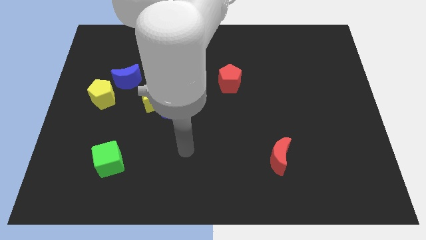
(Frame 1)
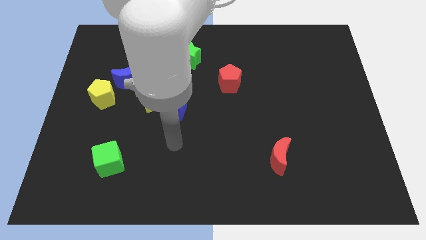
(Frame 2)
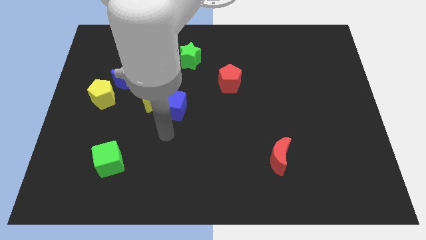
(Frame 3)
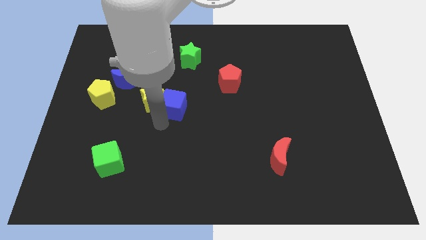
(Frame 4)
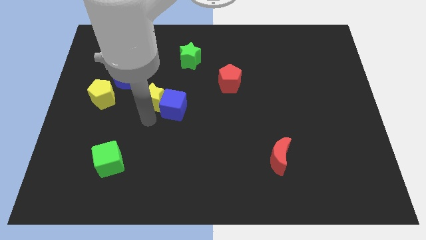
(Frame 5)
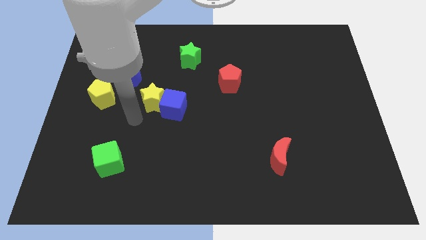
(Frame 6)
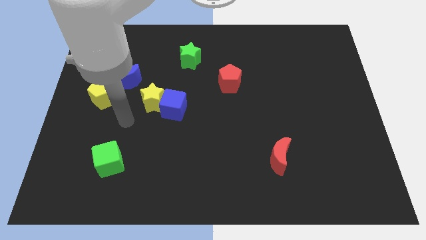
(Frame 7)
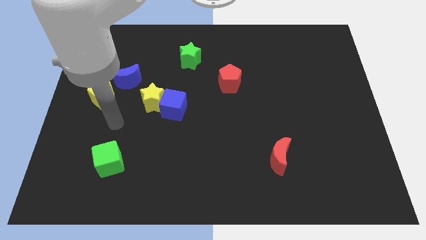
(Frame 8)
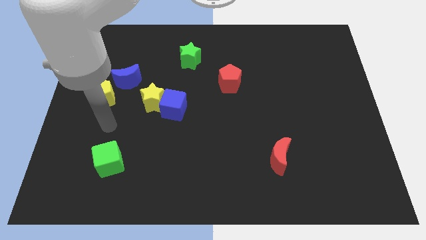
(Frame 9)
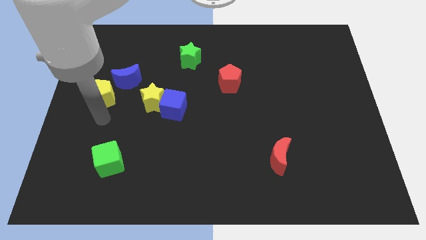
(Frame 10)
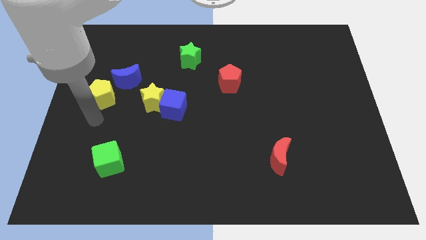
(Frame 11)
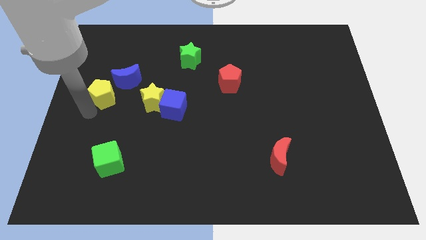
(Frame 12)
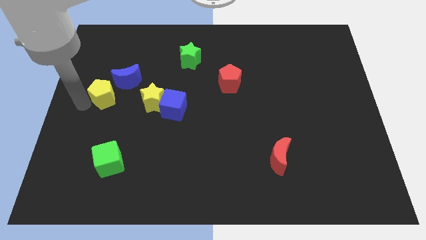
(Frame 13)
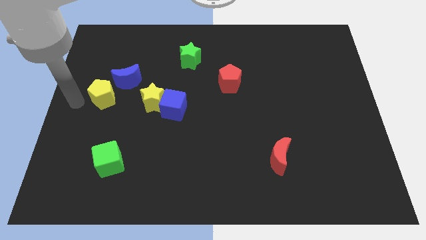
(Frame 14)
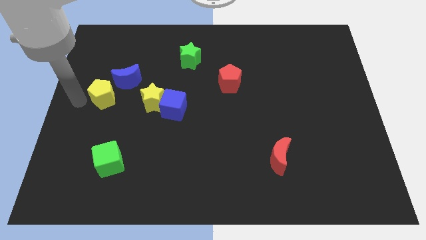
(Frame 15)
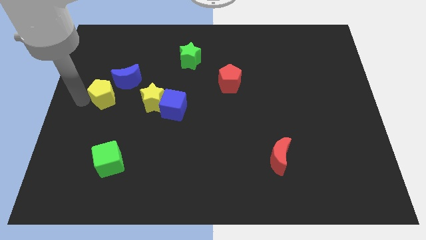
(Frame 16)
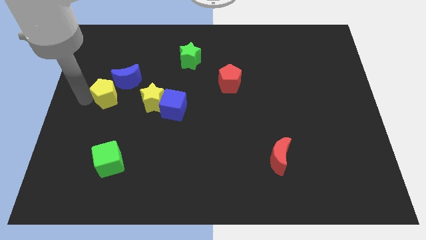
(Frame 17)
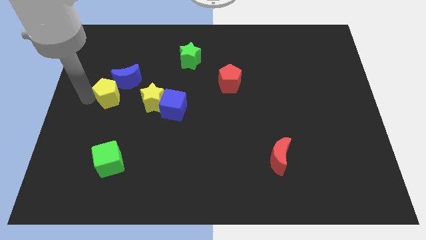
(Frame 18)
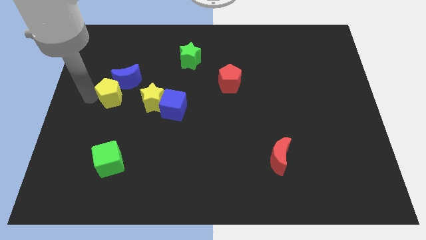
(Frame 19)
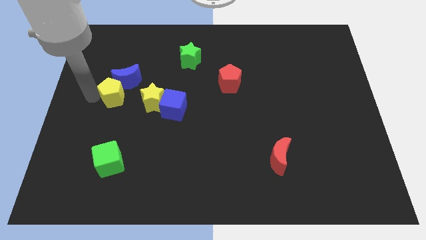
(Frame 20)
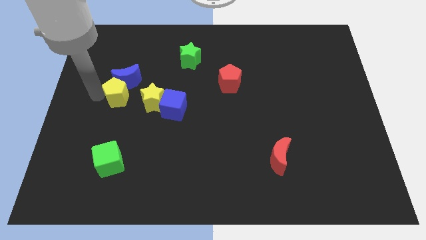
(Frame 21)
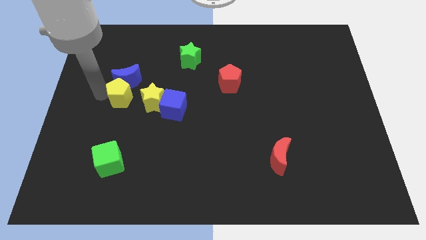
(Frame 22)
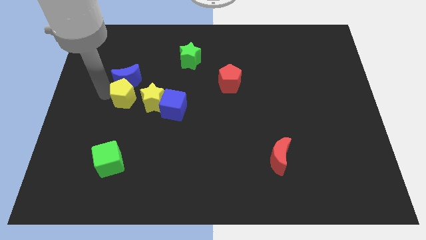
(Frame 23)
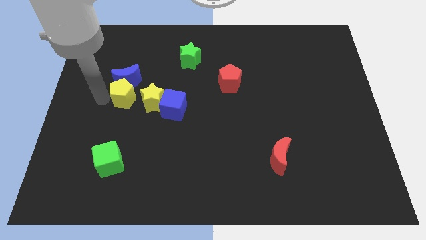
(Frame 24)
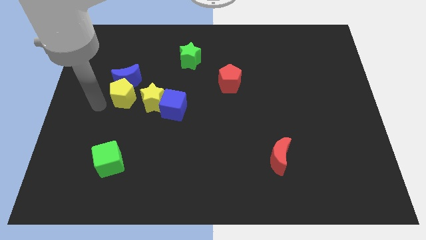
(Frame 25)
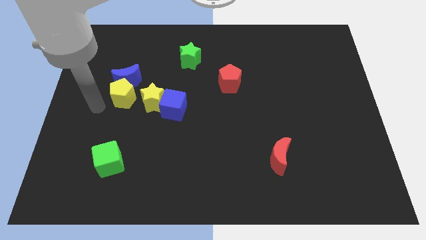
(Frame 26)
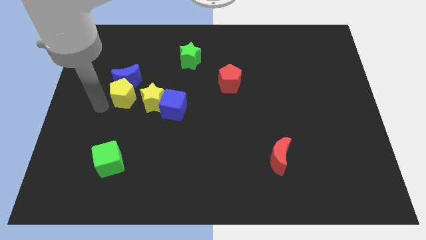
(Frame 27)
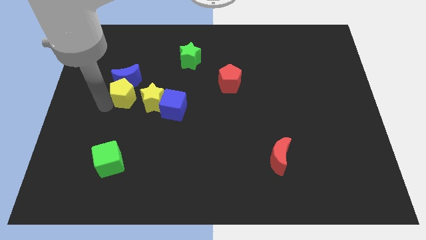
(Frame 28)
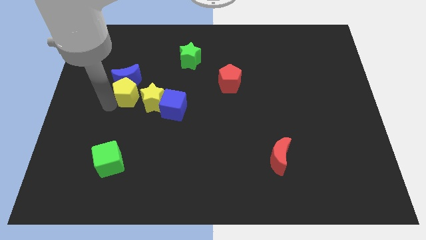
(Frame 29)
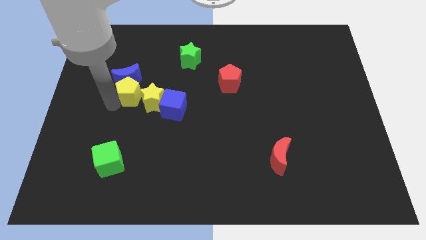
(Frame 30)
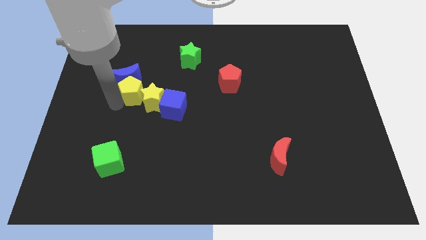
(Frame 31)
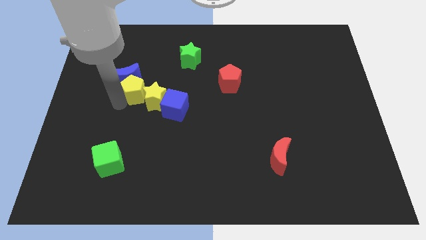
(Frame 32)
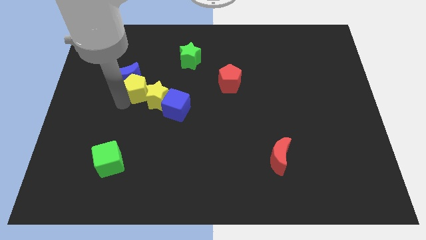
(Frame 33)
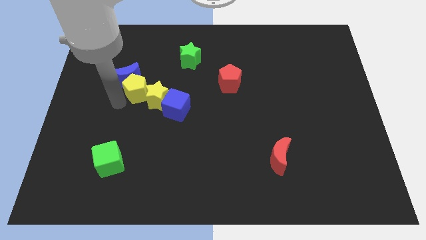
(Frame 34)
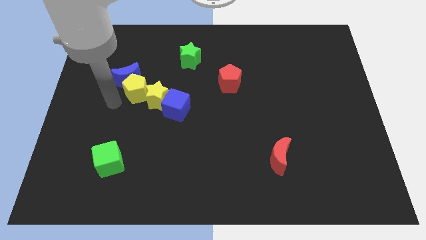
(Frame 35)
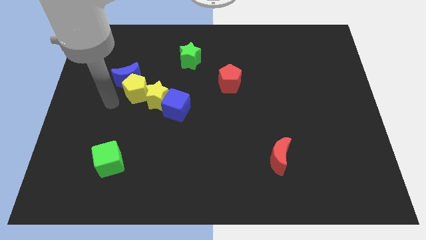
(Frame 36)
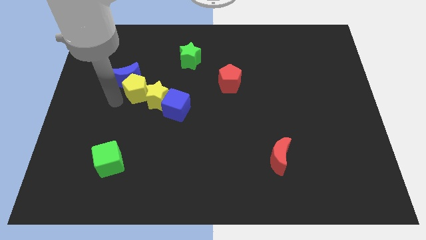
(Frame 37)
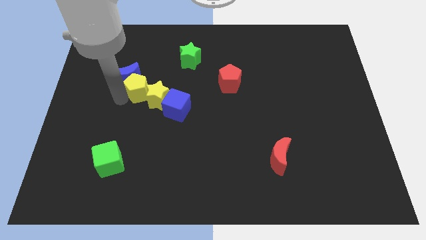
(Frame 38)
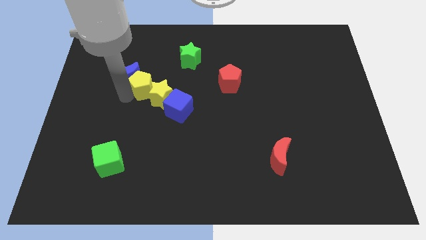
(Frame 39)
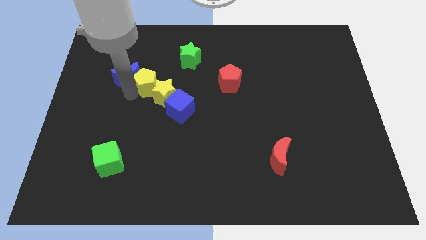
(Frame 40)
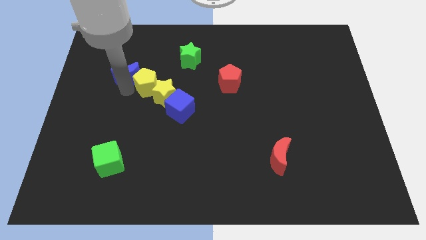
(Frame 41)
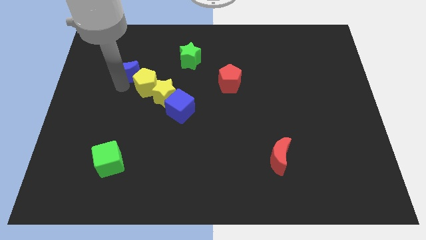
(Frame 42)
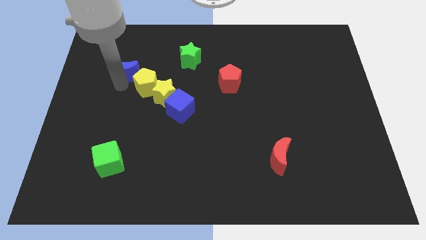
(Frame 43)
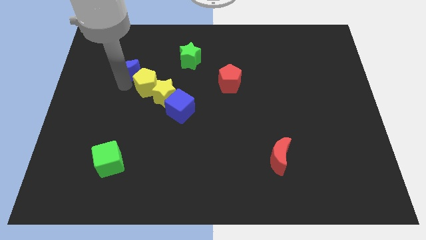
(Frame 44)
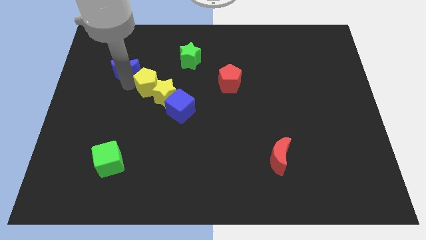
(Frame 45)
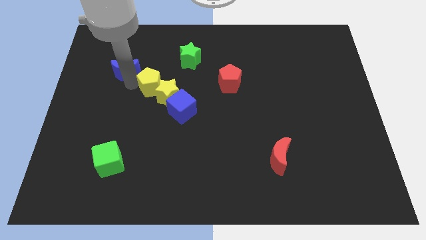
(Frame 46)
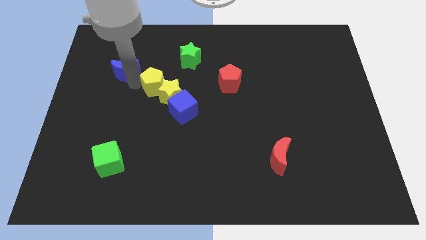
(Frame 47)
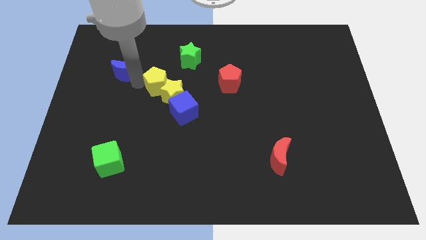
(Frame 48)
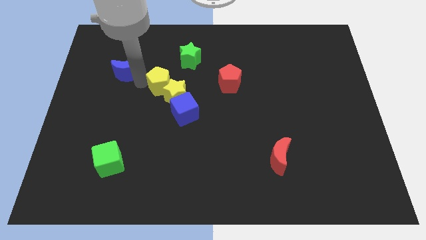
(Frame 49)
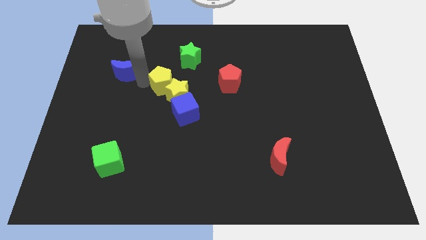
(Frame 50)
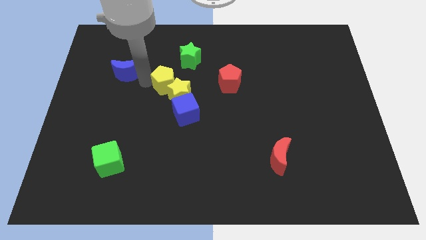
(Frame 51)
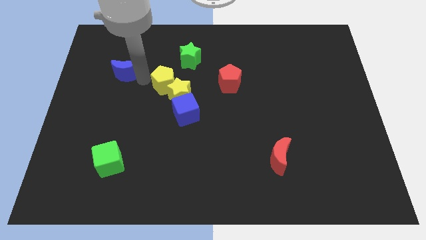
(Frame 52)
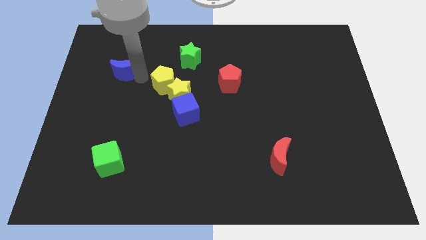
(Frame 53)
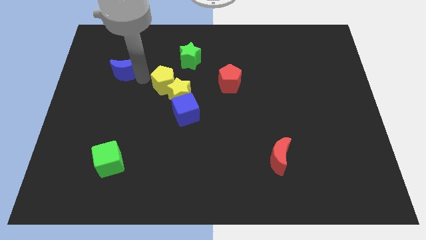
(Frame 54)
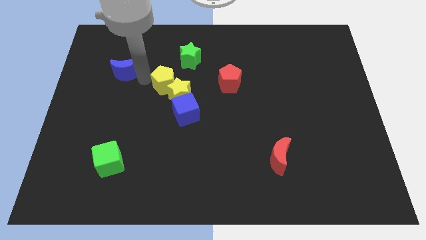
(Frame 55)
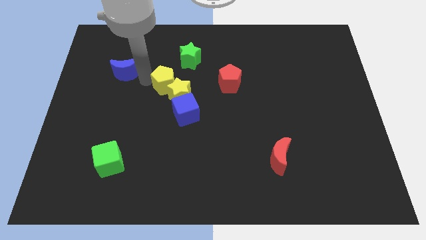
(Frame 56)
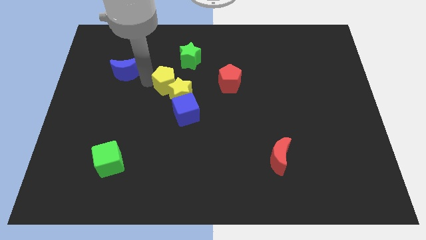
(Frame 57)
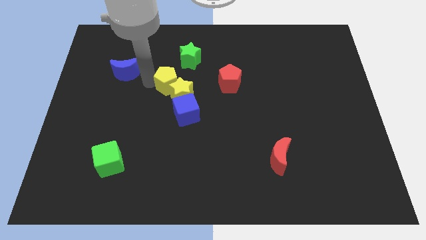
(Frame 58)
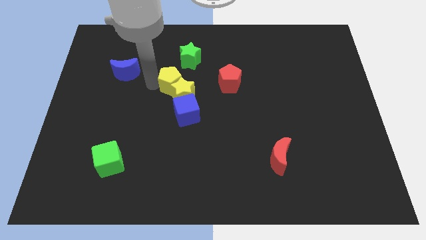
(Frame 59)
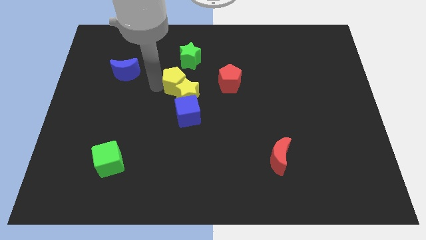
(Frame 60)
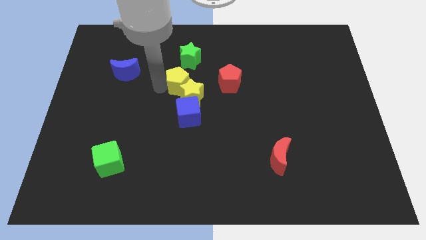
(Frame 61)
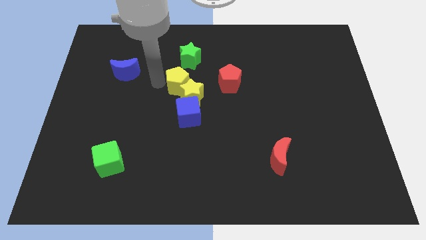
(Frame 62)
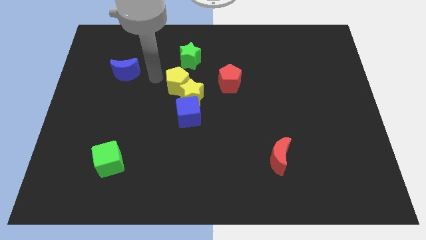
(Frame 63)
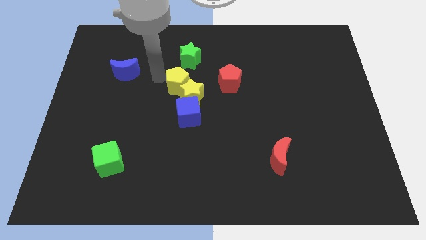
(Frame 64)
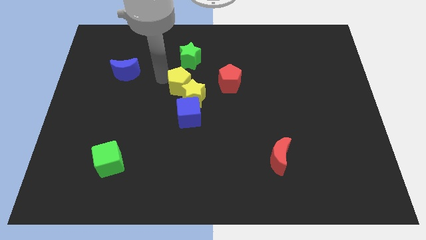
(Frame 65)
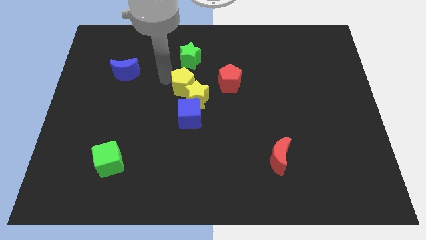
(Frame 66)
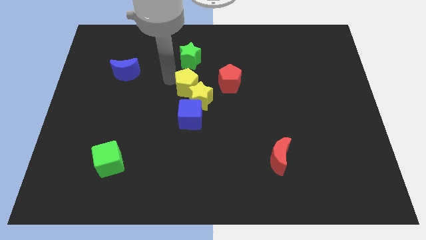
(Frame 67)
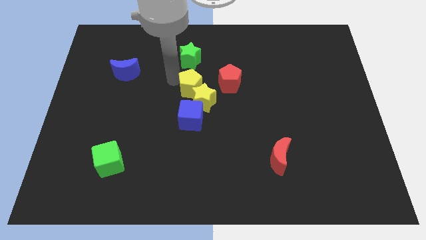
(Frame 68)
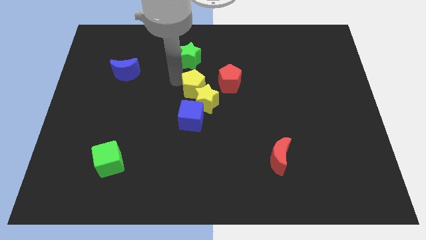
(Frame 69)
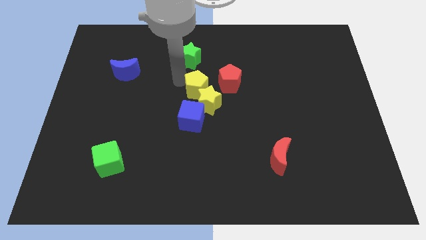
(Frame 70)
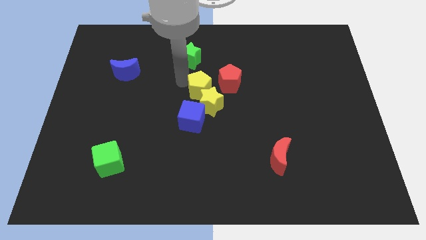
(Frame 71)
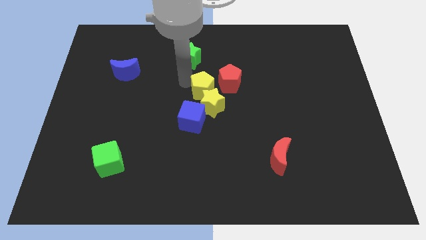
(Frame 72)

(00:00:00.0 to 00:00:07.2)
put the yellow pentagon to the top right of the blue cube
